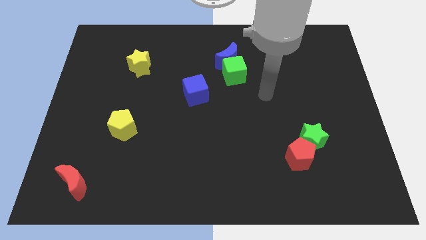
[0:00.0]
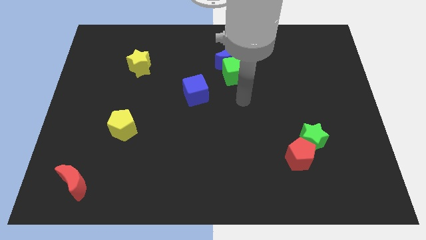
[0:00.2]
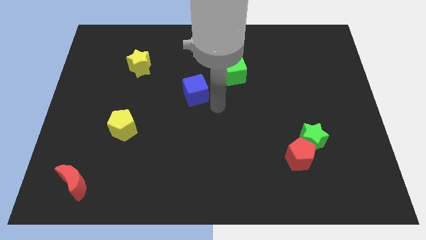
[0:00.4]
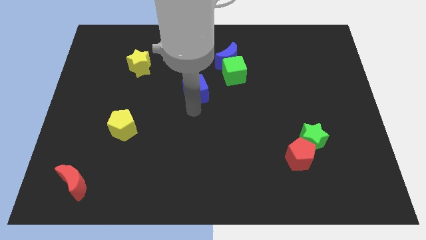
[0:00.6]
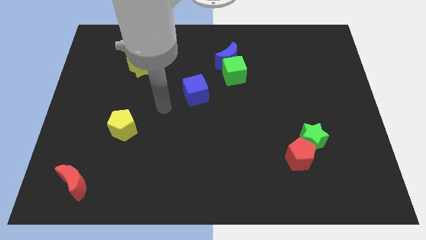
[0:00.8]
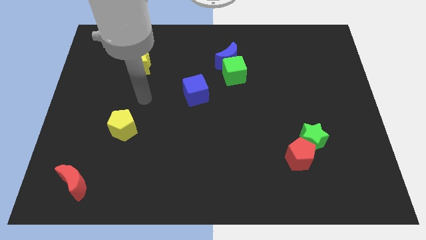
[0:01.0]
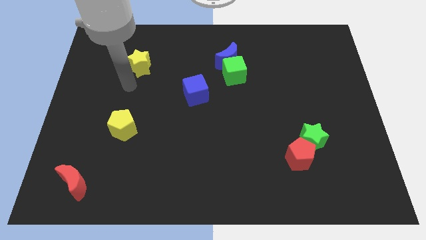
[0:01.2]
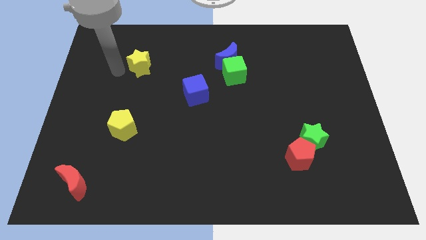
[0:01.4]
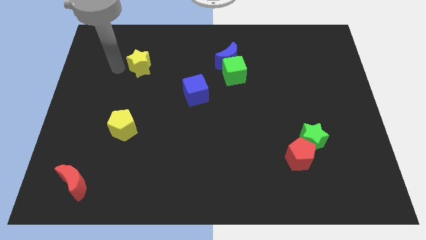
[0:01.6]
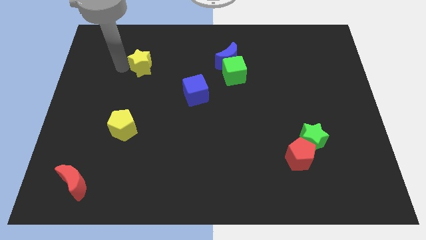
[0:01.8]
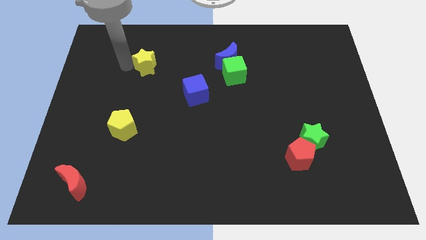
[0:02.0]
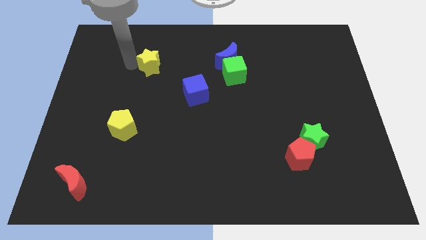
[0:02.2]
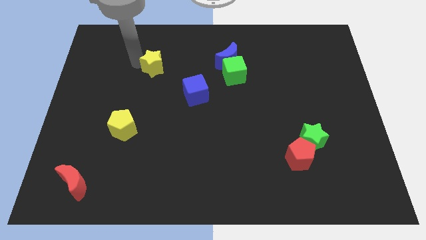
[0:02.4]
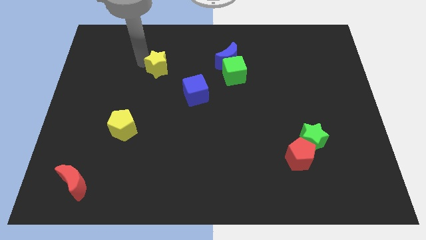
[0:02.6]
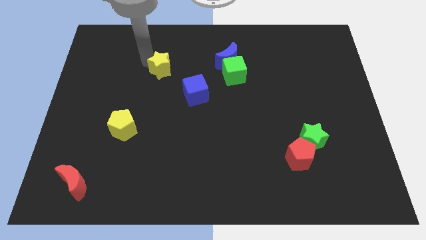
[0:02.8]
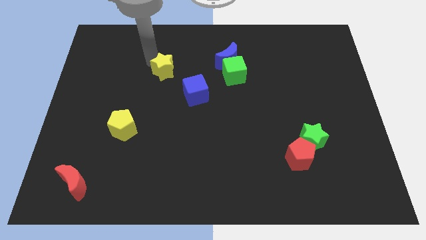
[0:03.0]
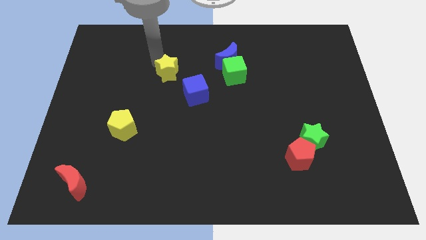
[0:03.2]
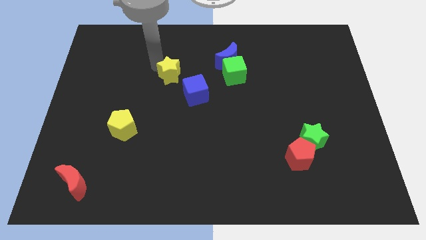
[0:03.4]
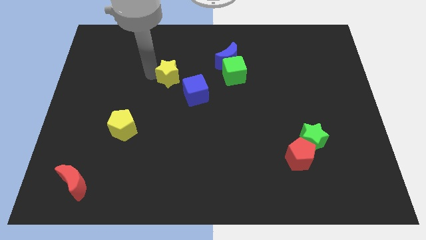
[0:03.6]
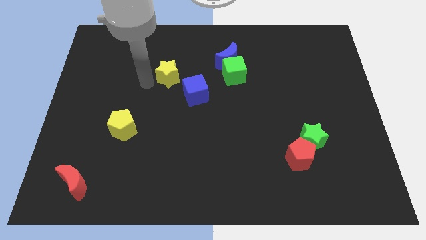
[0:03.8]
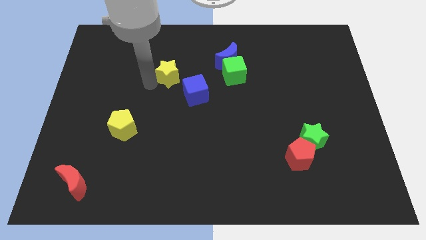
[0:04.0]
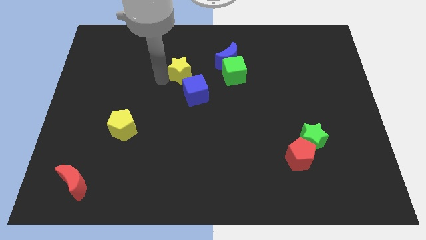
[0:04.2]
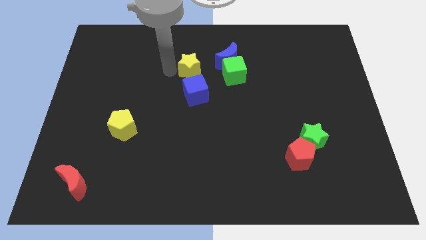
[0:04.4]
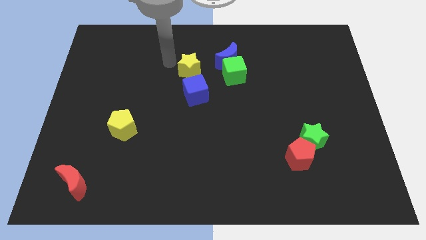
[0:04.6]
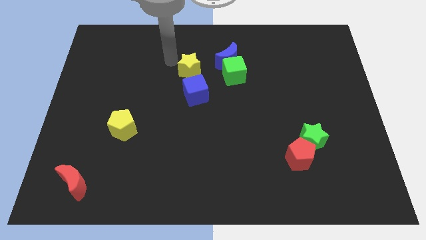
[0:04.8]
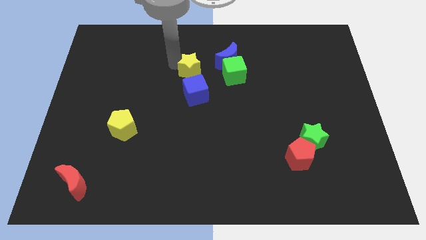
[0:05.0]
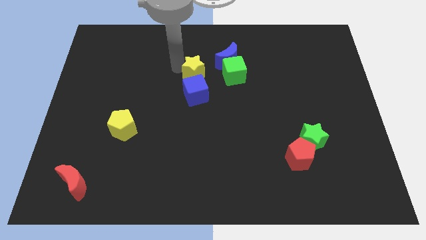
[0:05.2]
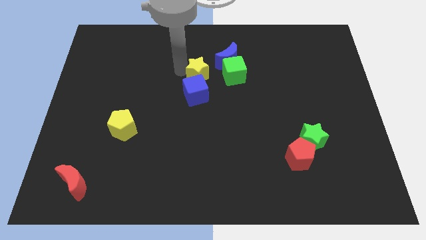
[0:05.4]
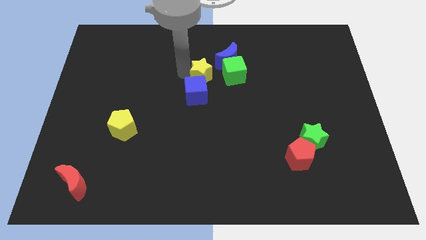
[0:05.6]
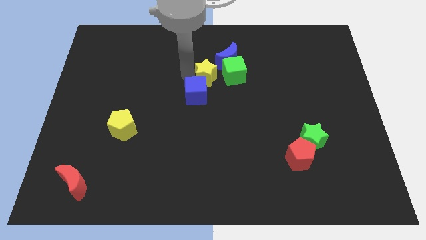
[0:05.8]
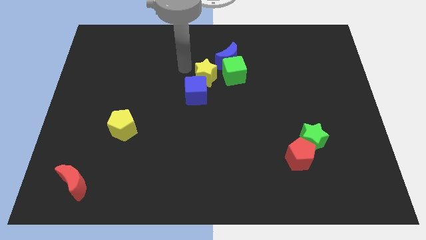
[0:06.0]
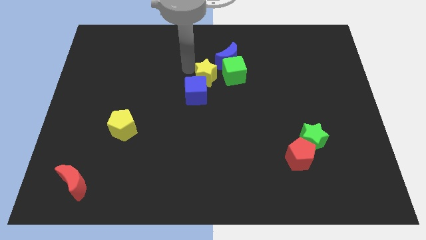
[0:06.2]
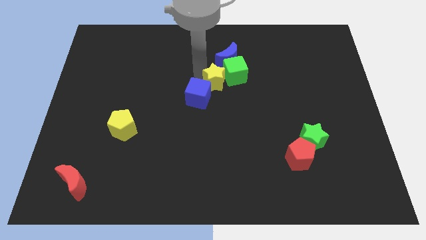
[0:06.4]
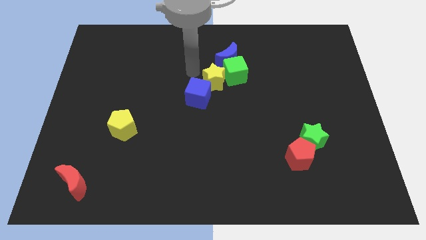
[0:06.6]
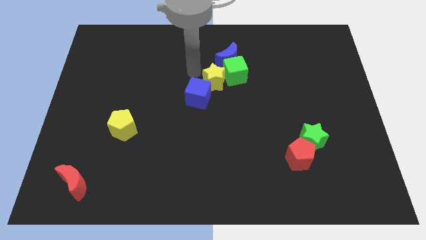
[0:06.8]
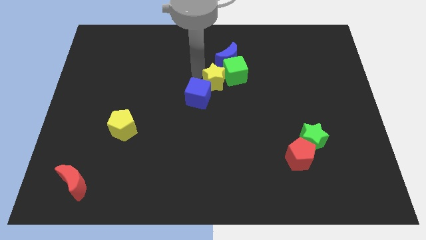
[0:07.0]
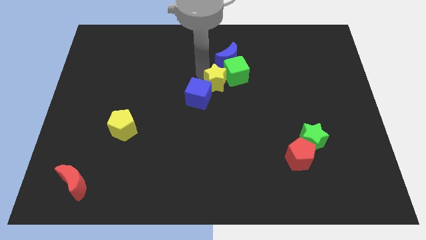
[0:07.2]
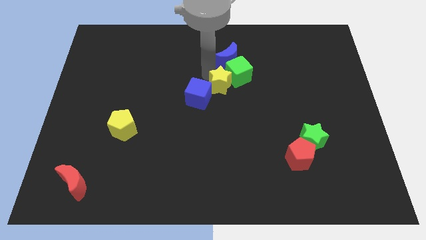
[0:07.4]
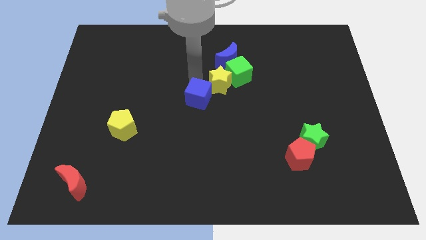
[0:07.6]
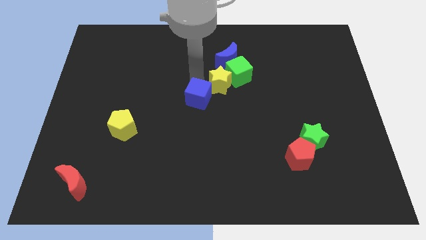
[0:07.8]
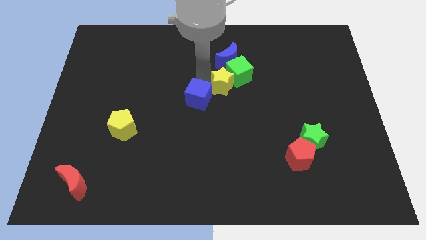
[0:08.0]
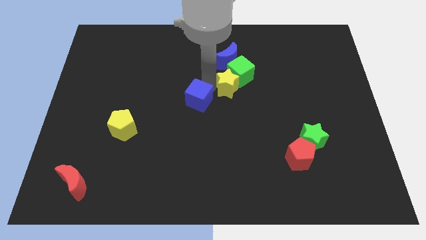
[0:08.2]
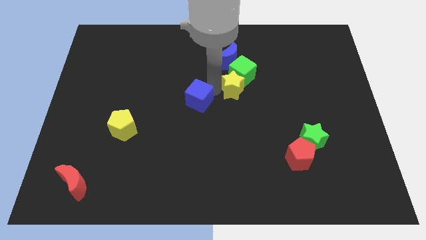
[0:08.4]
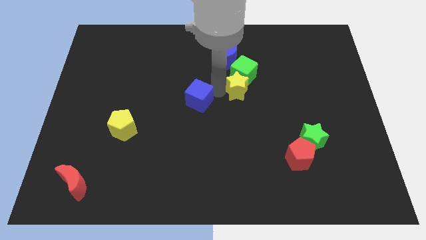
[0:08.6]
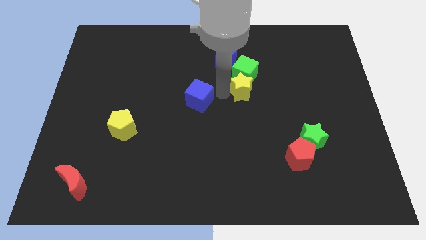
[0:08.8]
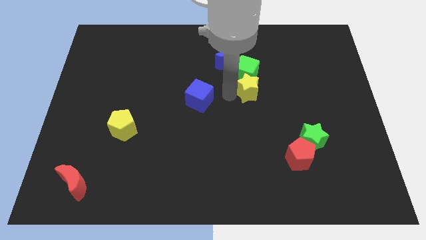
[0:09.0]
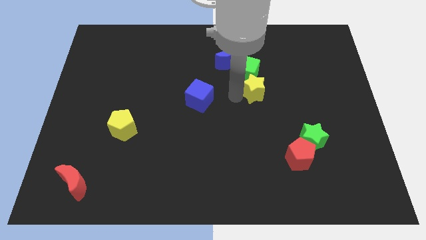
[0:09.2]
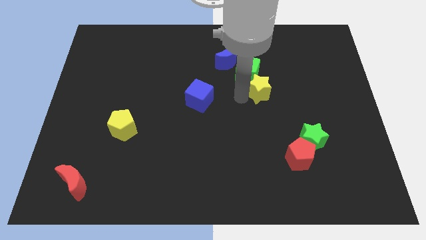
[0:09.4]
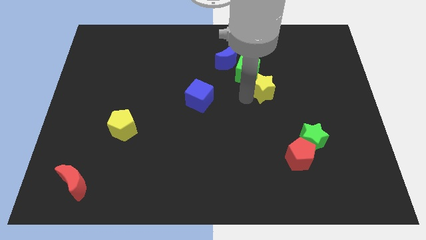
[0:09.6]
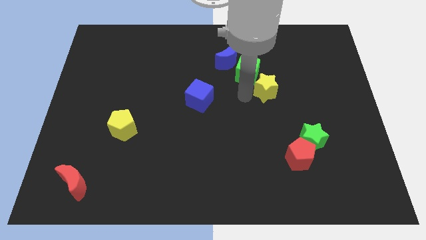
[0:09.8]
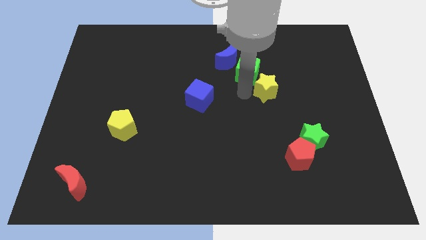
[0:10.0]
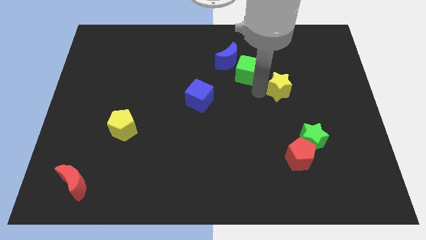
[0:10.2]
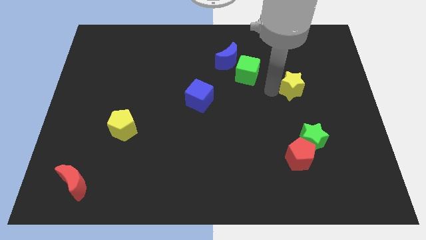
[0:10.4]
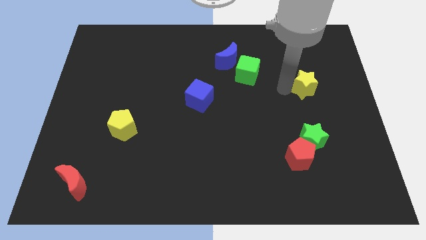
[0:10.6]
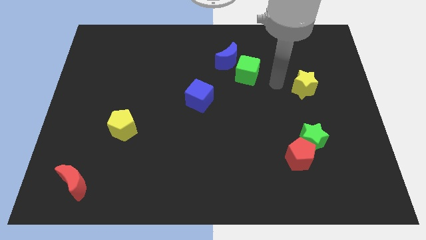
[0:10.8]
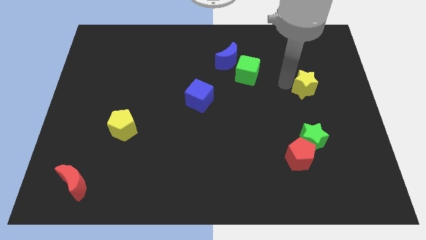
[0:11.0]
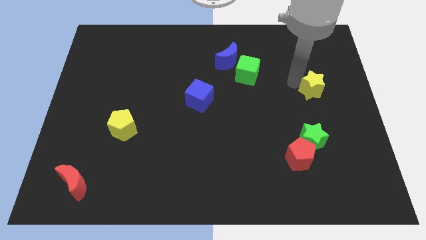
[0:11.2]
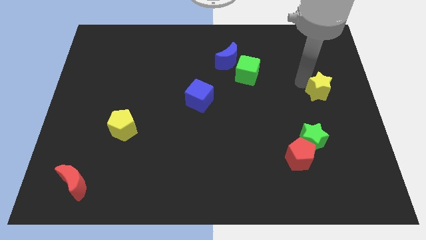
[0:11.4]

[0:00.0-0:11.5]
put the yellow star to the right side of the board
